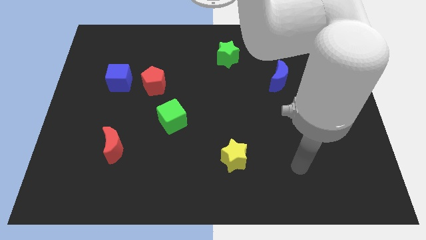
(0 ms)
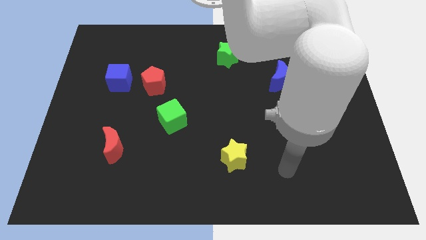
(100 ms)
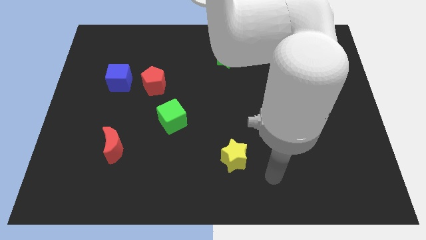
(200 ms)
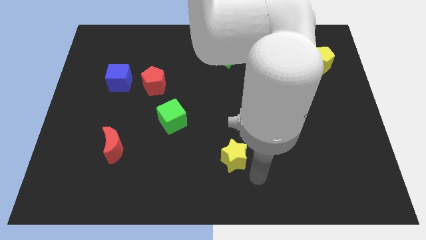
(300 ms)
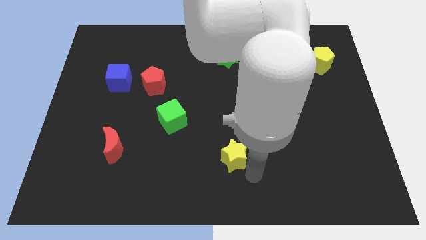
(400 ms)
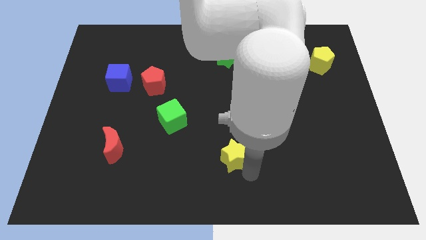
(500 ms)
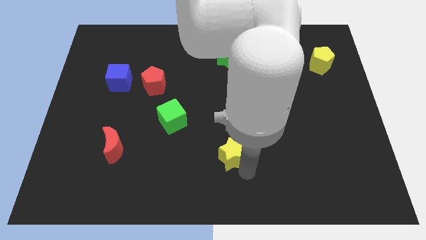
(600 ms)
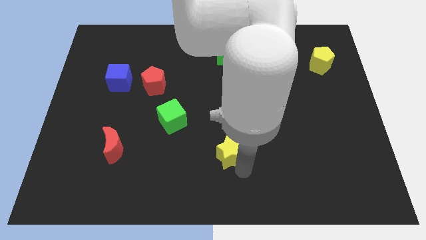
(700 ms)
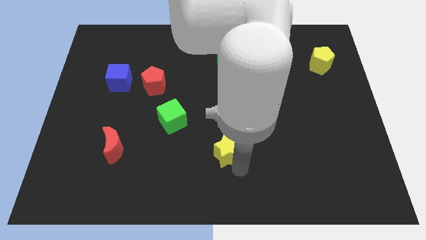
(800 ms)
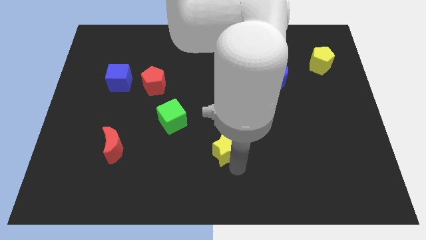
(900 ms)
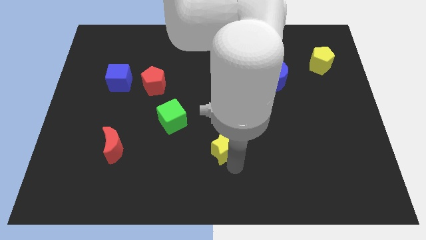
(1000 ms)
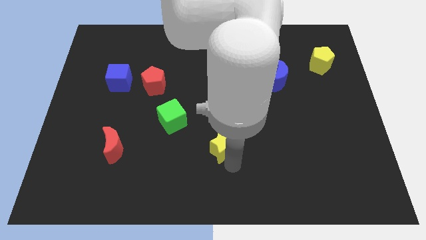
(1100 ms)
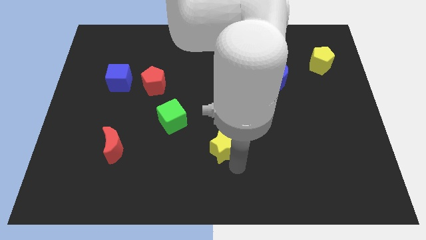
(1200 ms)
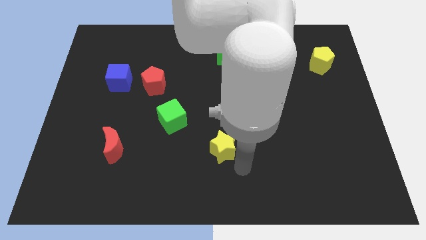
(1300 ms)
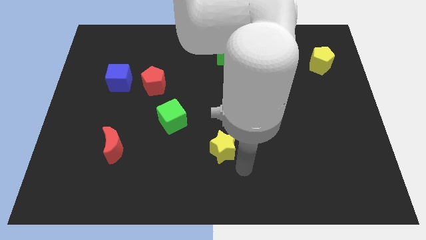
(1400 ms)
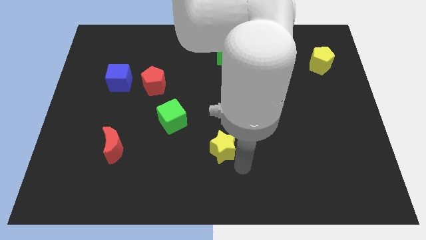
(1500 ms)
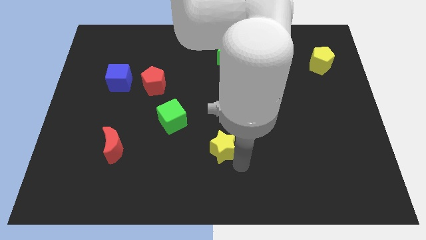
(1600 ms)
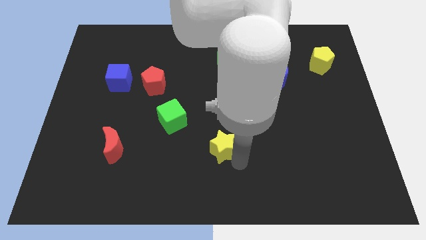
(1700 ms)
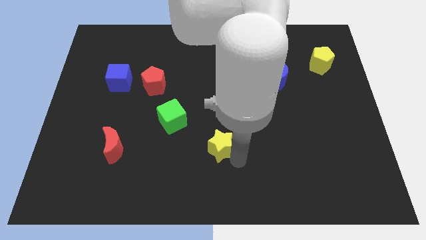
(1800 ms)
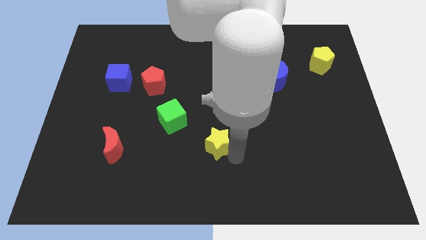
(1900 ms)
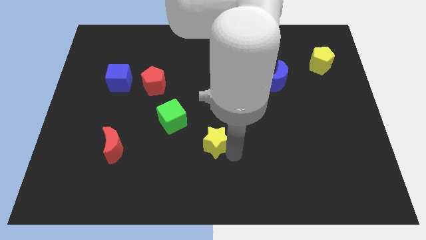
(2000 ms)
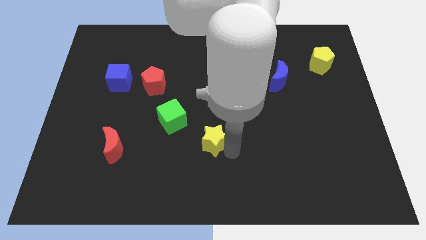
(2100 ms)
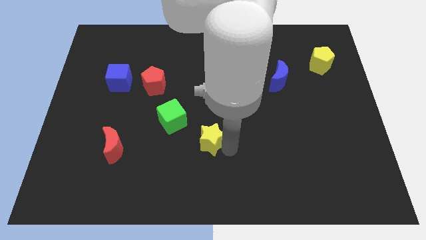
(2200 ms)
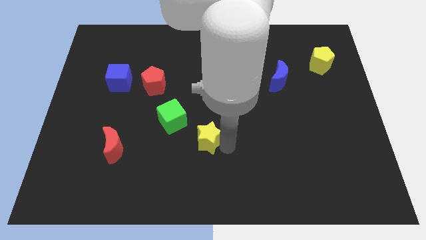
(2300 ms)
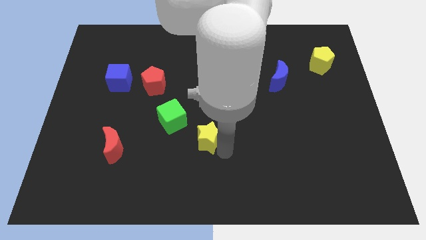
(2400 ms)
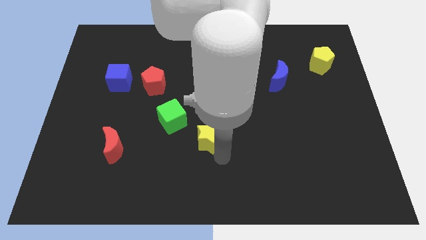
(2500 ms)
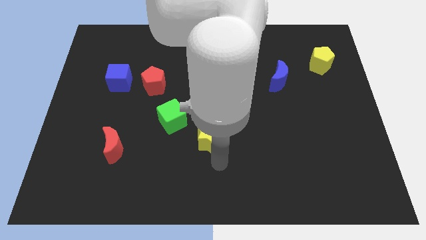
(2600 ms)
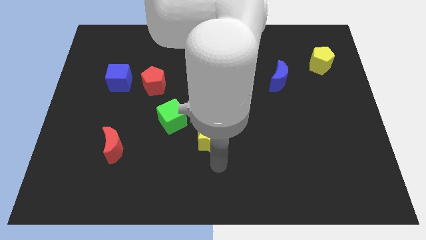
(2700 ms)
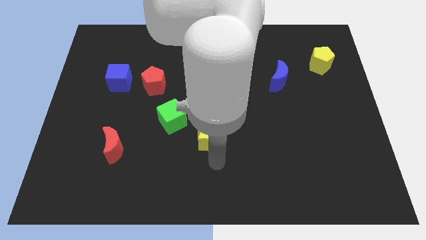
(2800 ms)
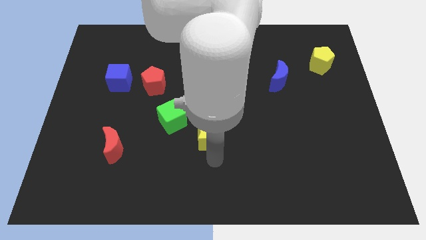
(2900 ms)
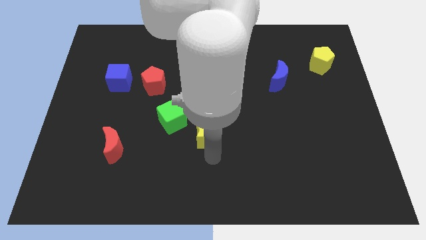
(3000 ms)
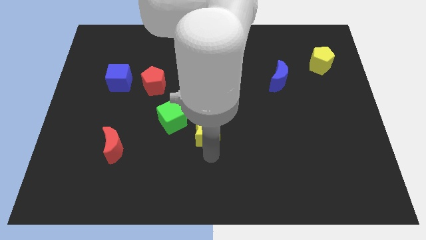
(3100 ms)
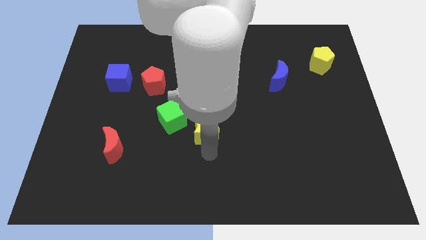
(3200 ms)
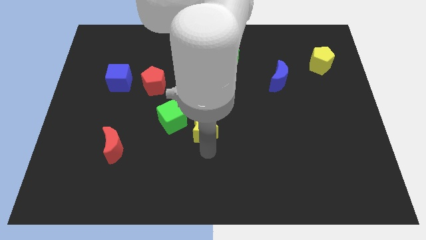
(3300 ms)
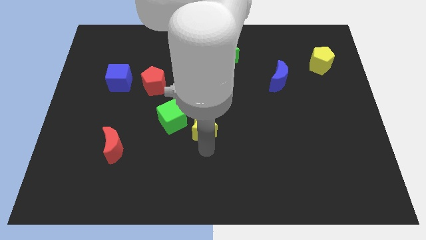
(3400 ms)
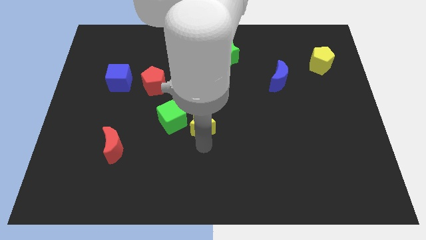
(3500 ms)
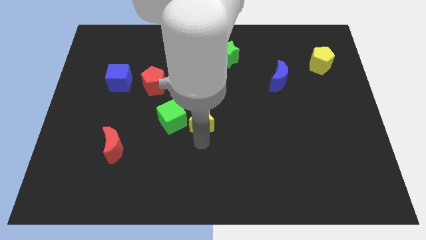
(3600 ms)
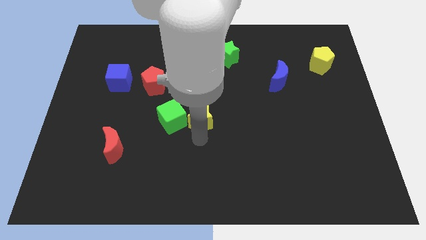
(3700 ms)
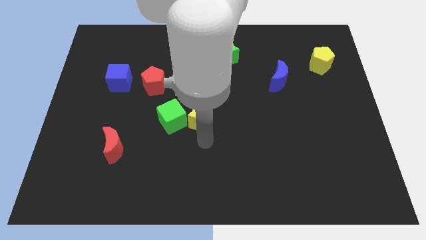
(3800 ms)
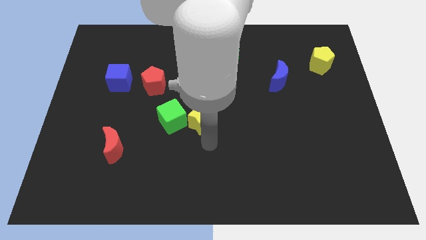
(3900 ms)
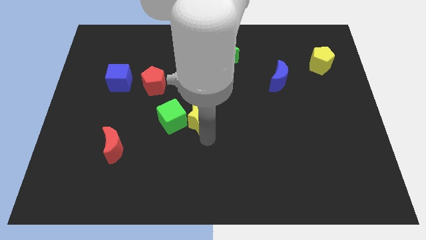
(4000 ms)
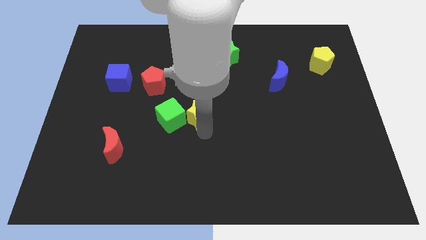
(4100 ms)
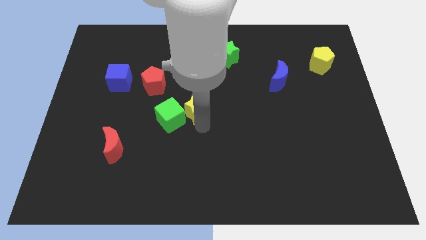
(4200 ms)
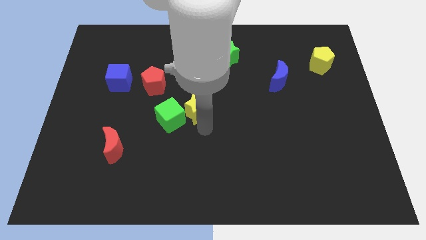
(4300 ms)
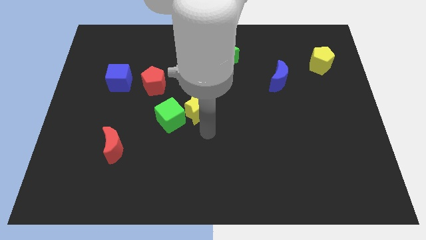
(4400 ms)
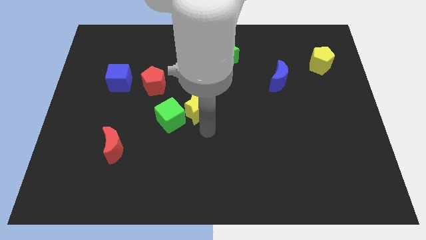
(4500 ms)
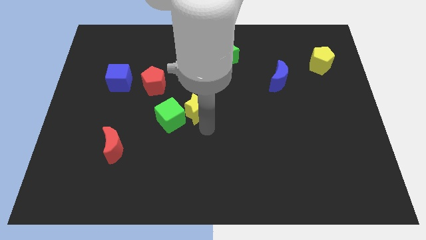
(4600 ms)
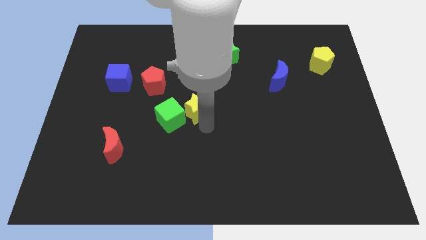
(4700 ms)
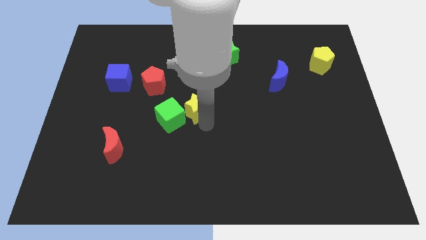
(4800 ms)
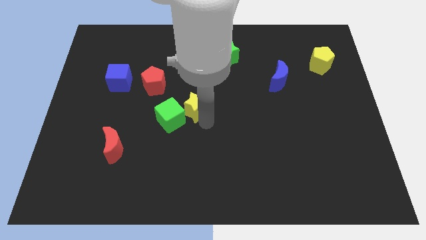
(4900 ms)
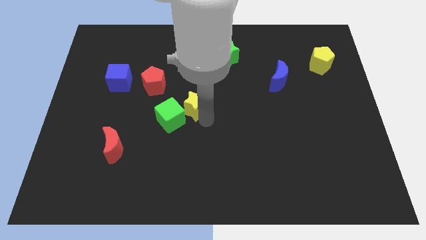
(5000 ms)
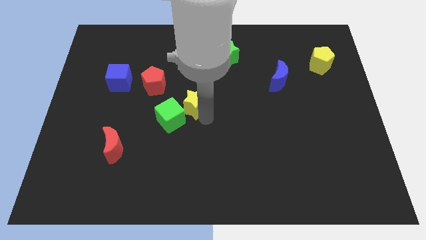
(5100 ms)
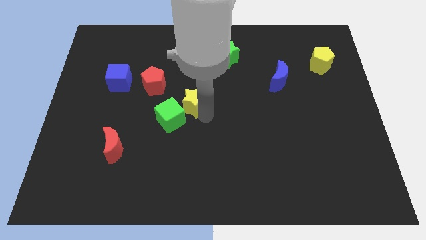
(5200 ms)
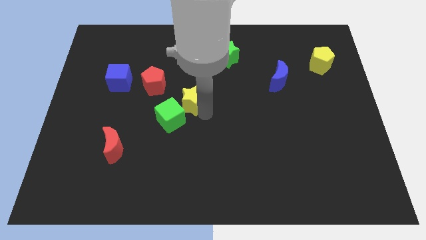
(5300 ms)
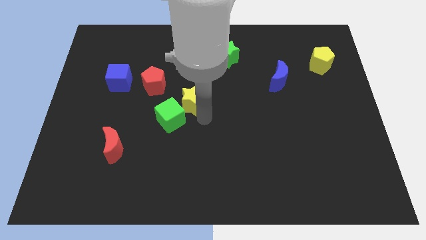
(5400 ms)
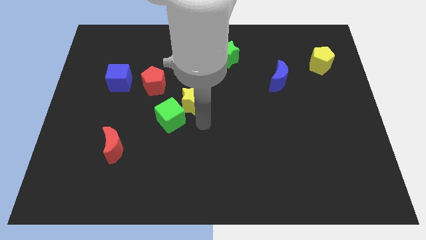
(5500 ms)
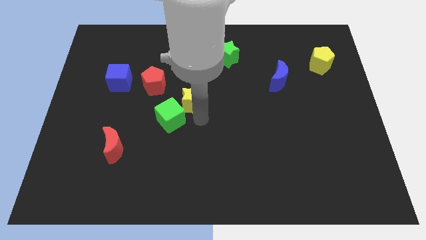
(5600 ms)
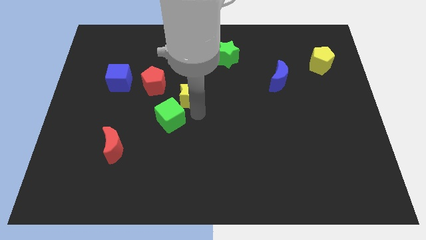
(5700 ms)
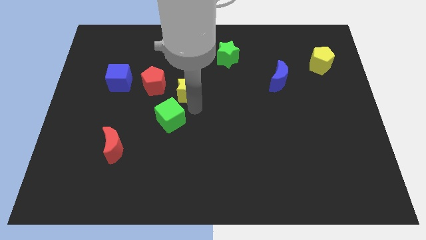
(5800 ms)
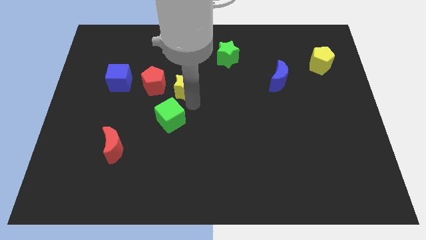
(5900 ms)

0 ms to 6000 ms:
move the yellow star diagonally upwards and left

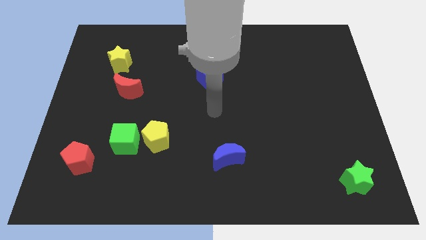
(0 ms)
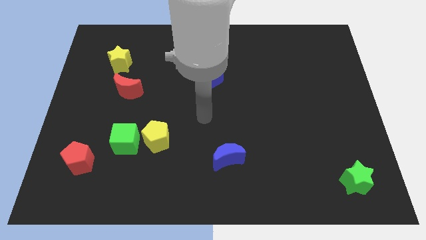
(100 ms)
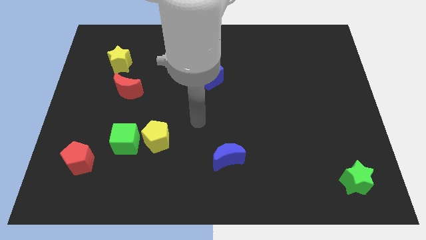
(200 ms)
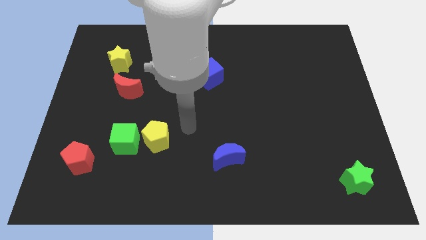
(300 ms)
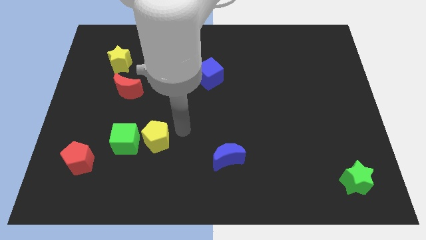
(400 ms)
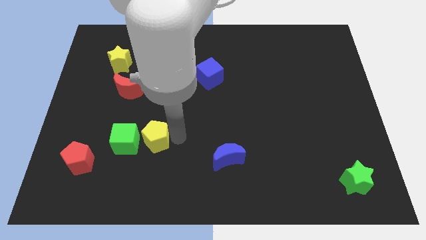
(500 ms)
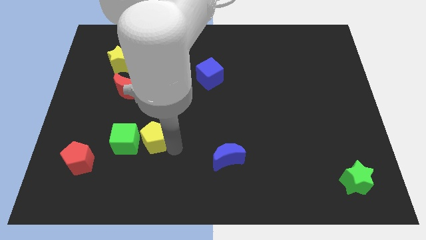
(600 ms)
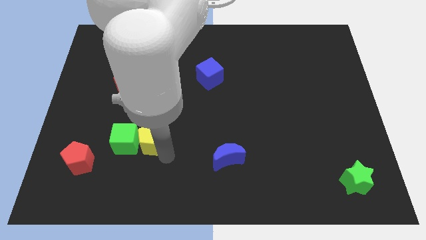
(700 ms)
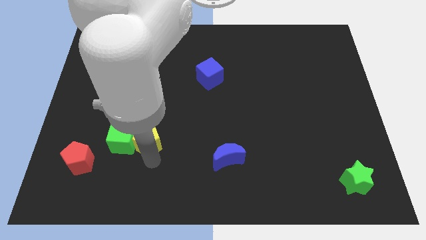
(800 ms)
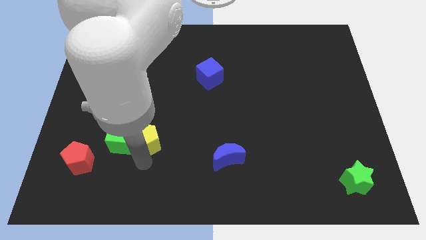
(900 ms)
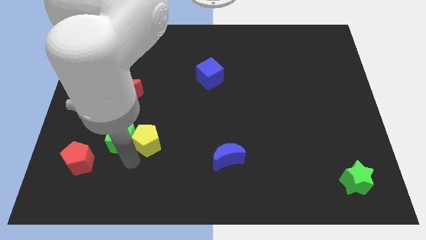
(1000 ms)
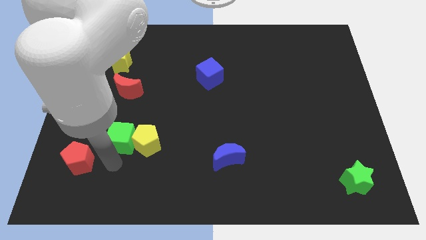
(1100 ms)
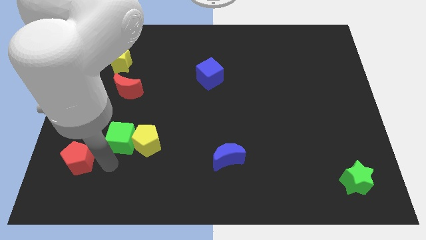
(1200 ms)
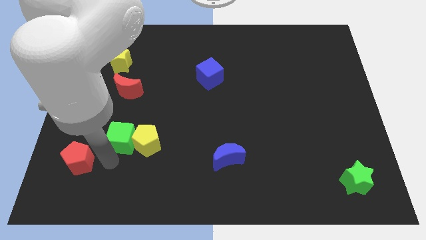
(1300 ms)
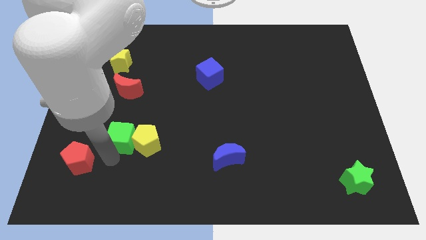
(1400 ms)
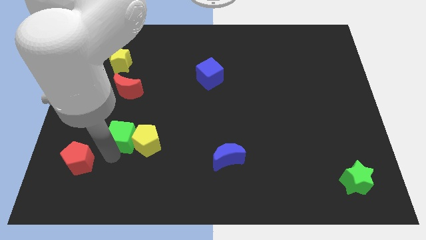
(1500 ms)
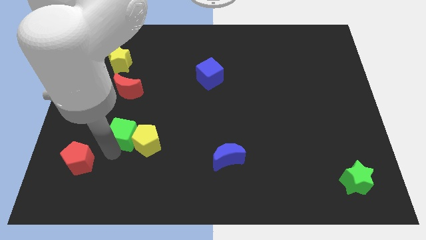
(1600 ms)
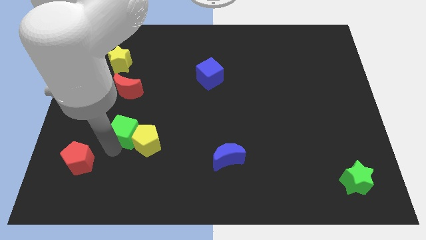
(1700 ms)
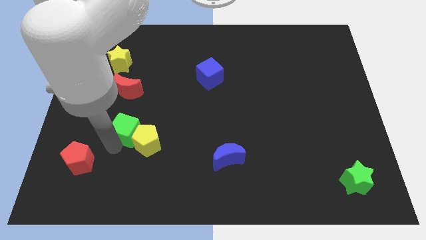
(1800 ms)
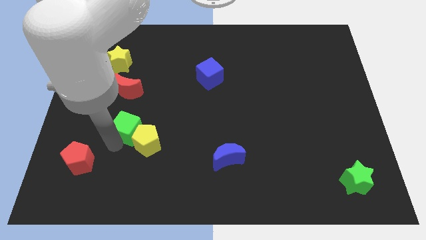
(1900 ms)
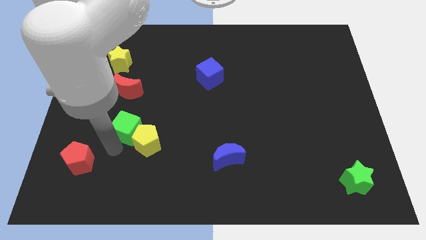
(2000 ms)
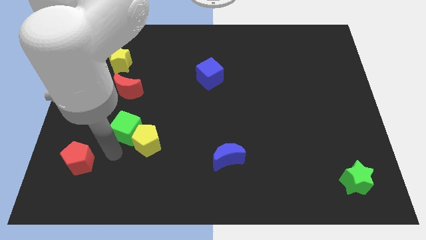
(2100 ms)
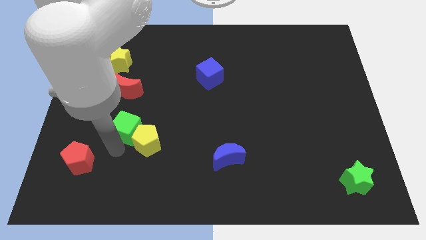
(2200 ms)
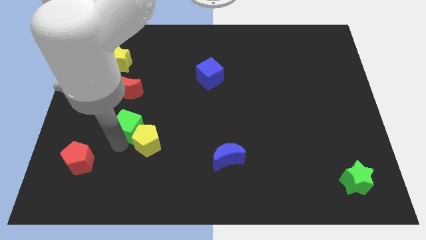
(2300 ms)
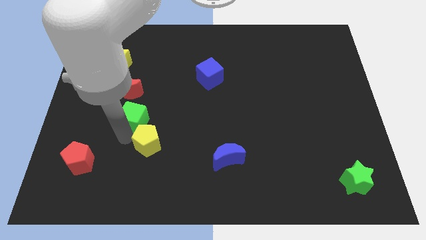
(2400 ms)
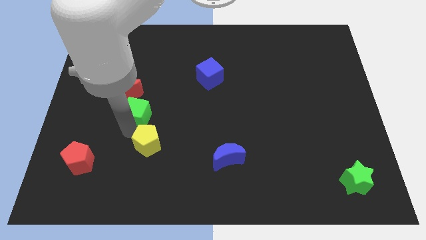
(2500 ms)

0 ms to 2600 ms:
slightly move the green cube upwards
